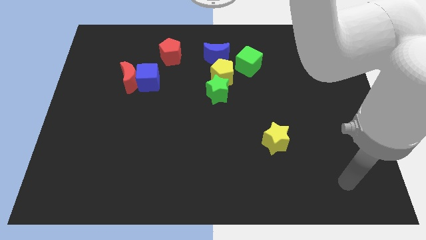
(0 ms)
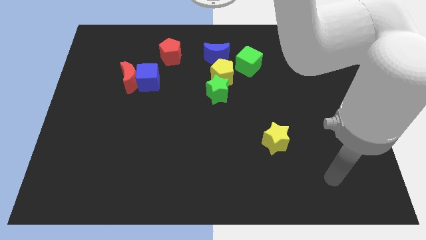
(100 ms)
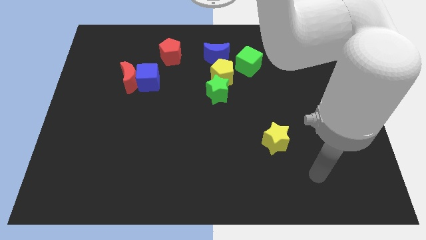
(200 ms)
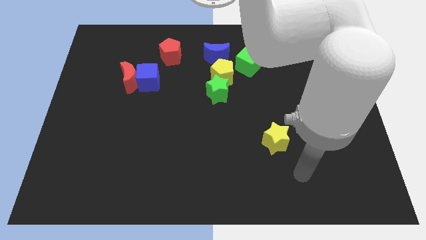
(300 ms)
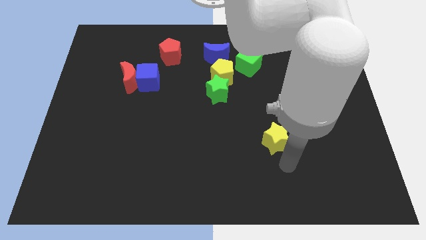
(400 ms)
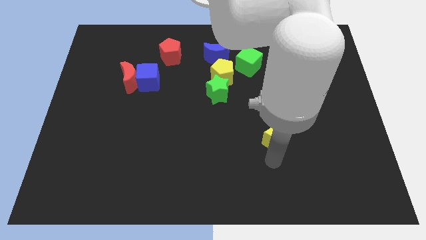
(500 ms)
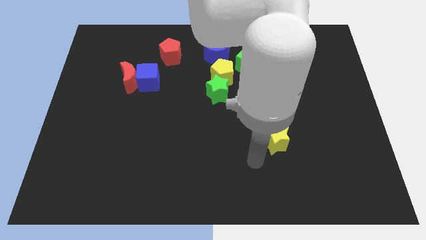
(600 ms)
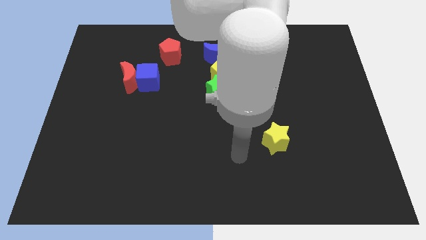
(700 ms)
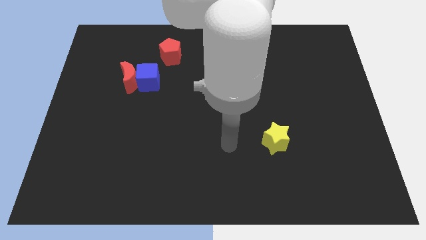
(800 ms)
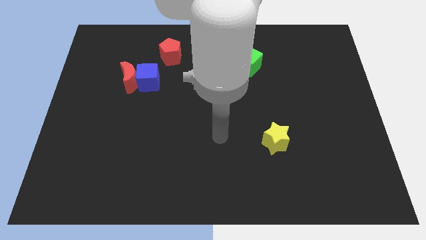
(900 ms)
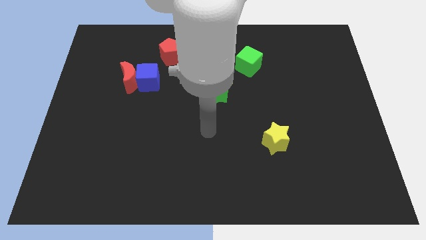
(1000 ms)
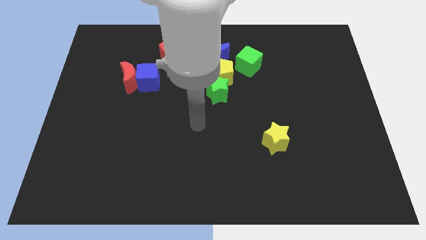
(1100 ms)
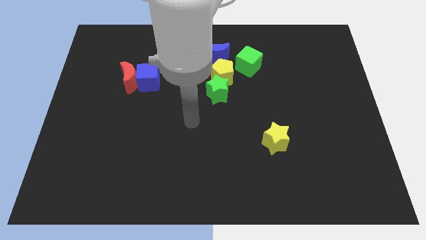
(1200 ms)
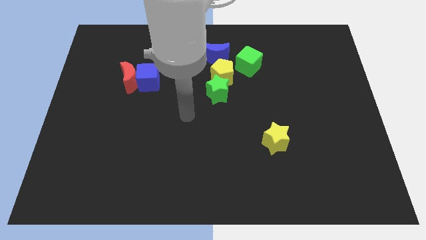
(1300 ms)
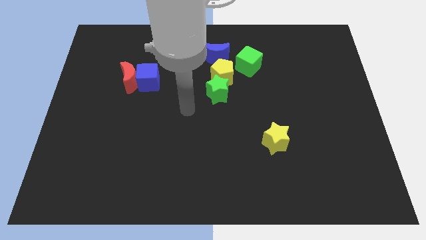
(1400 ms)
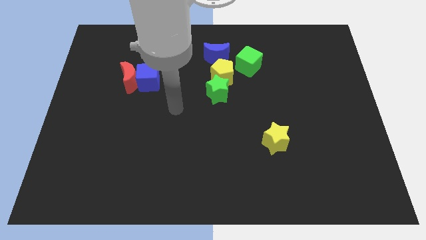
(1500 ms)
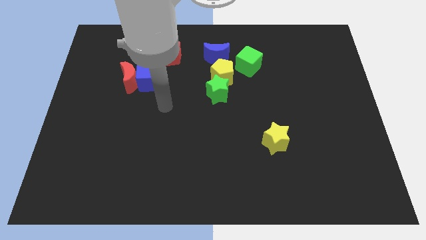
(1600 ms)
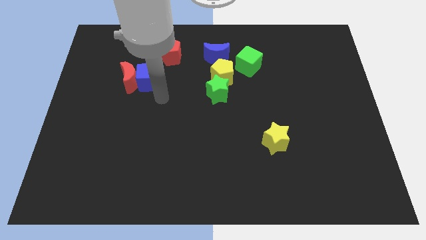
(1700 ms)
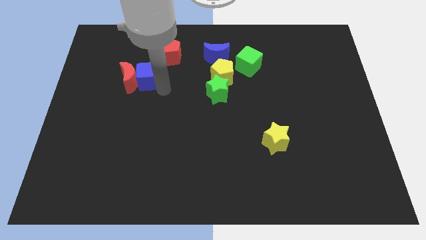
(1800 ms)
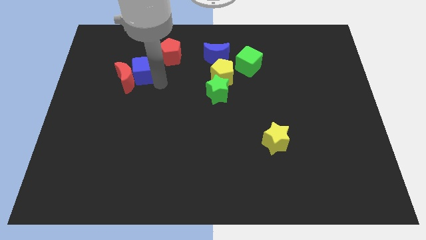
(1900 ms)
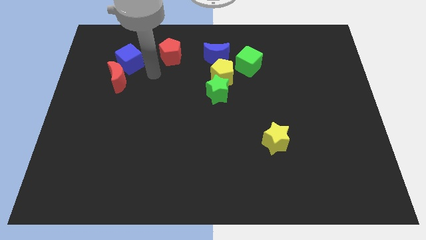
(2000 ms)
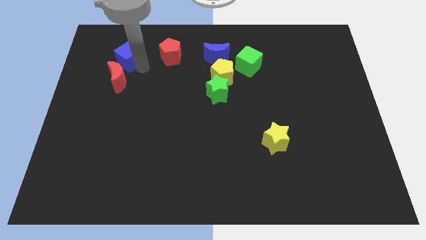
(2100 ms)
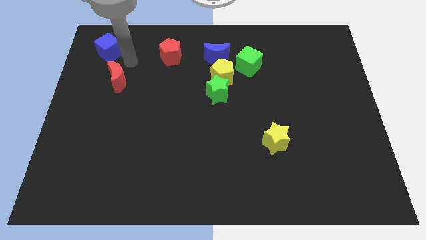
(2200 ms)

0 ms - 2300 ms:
pull the red moon apart from the blue cube

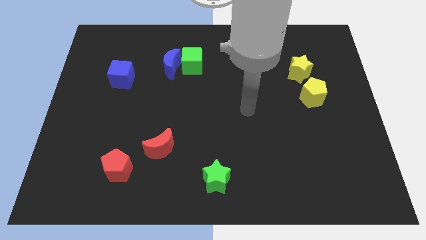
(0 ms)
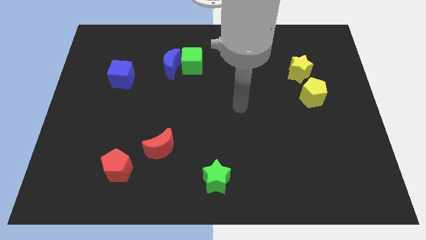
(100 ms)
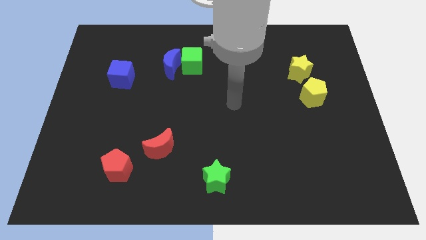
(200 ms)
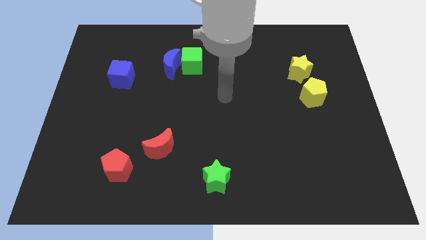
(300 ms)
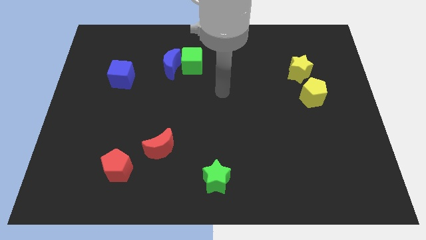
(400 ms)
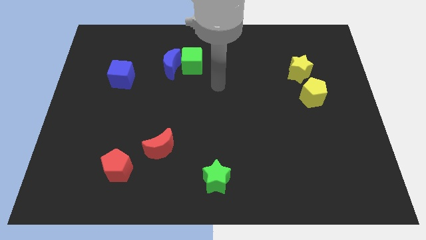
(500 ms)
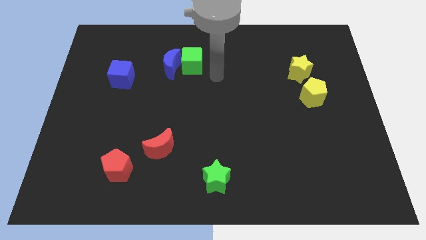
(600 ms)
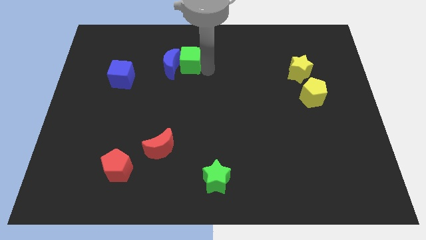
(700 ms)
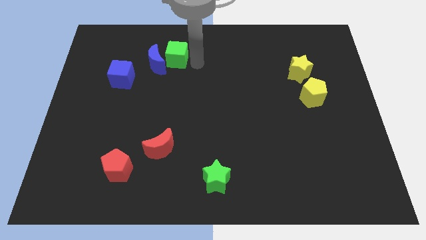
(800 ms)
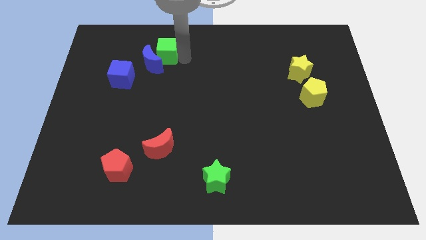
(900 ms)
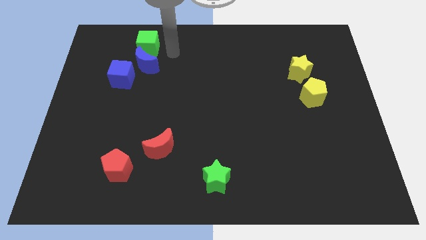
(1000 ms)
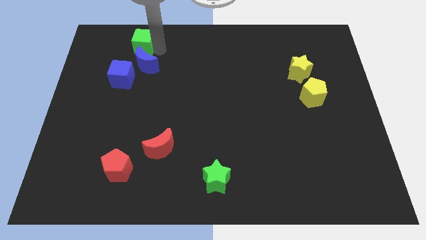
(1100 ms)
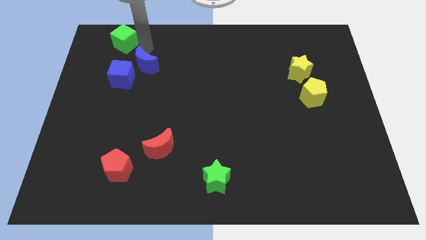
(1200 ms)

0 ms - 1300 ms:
move the blue moon away from the green cube

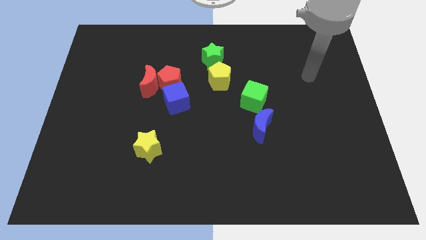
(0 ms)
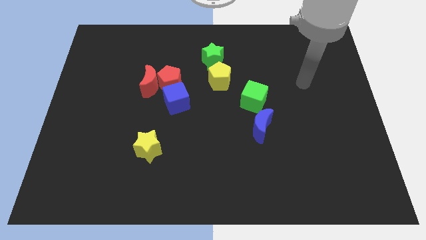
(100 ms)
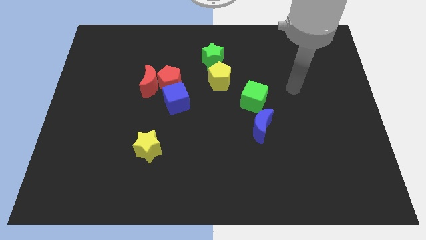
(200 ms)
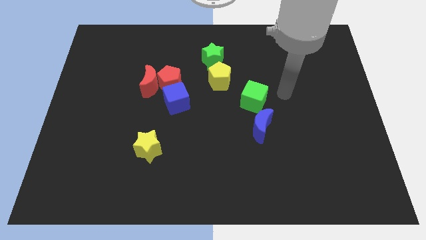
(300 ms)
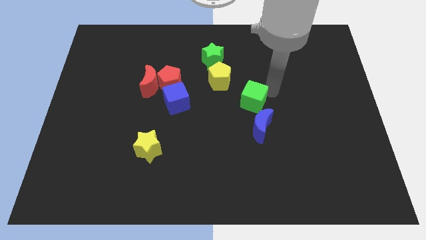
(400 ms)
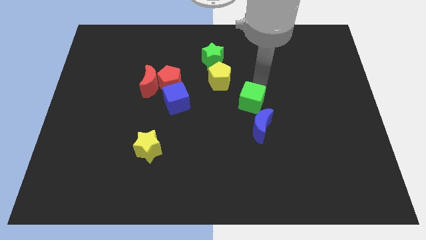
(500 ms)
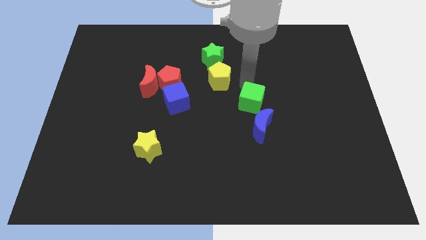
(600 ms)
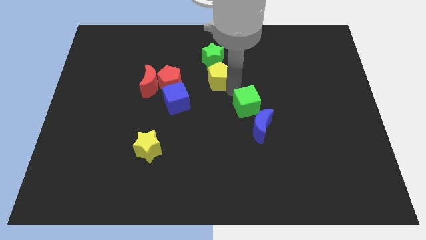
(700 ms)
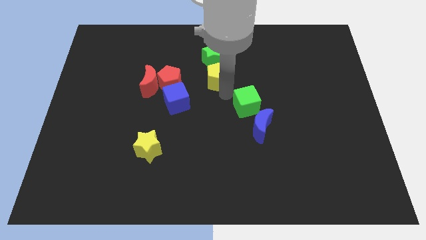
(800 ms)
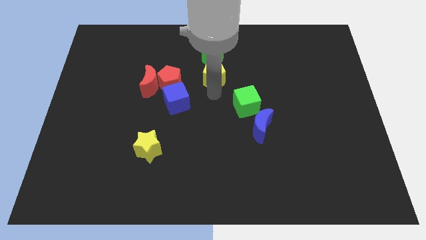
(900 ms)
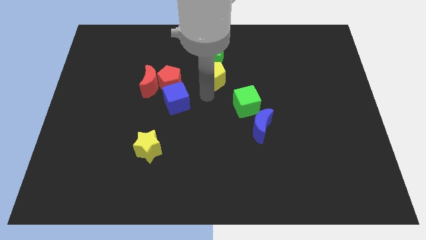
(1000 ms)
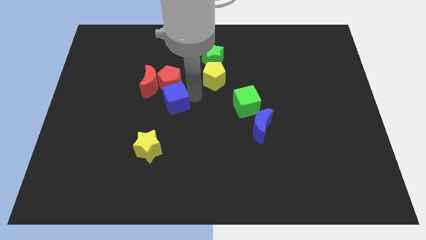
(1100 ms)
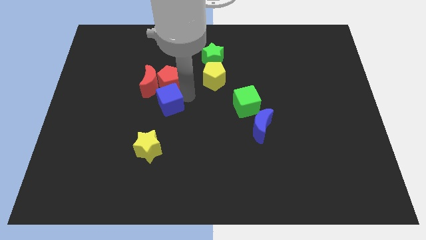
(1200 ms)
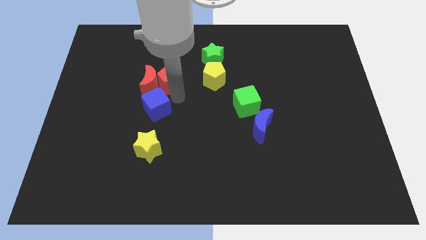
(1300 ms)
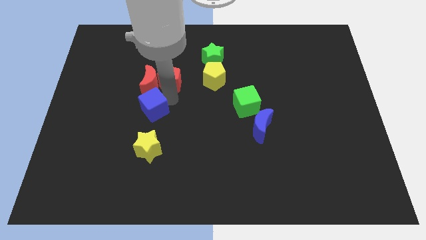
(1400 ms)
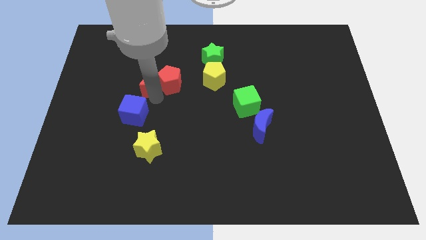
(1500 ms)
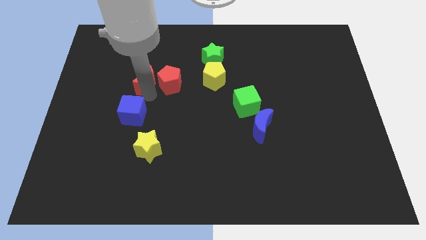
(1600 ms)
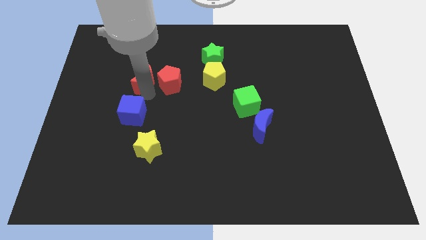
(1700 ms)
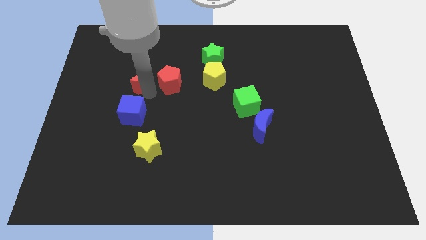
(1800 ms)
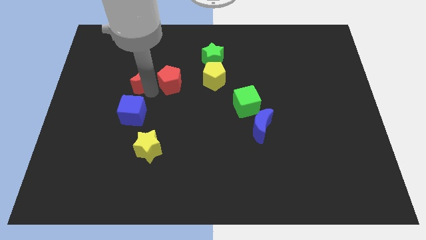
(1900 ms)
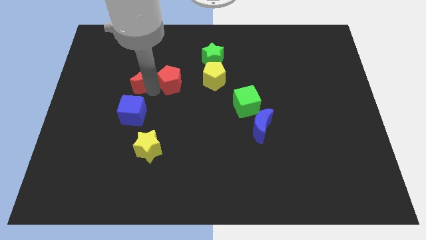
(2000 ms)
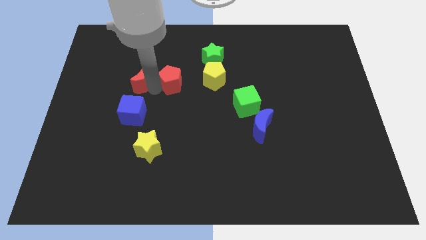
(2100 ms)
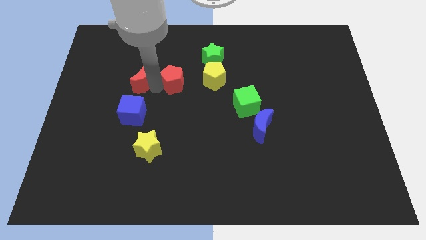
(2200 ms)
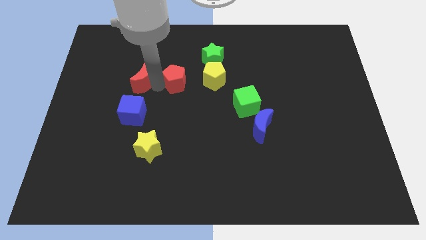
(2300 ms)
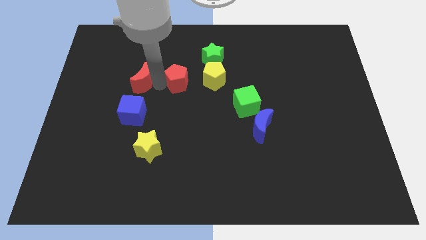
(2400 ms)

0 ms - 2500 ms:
move the red pentagon away from the red moon and blue cube

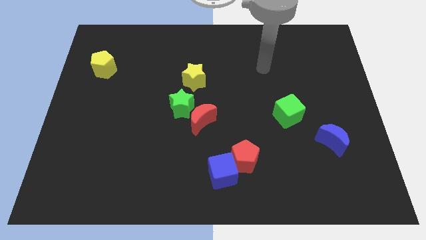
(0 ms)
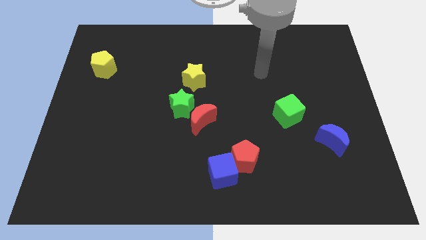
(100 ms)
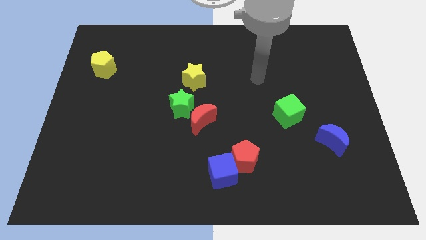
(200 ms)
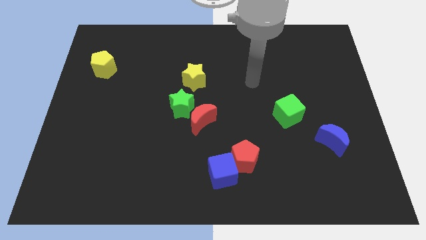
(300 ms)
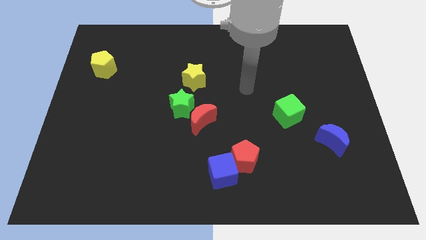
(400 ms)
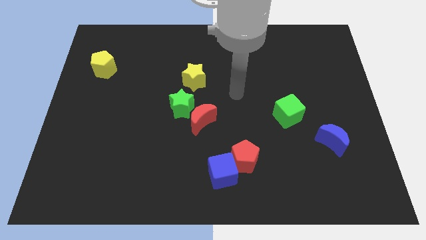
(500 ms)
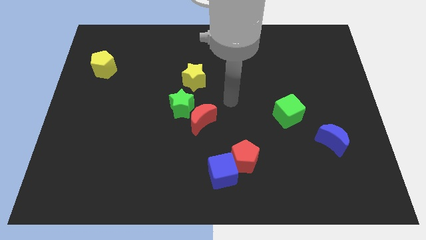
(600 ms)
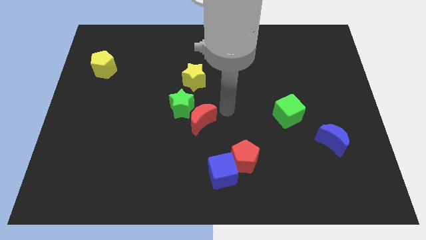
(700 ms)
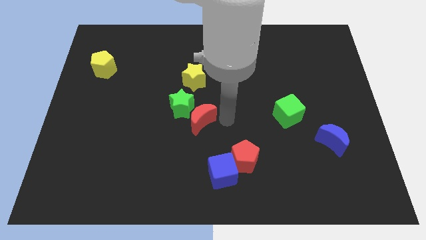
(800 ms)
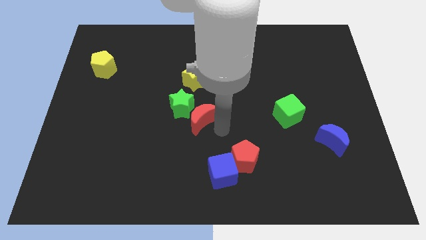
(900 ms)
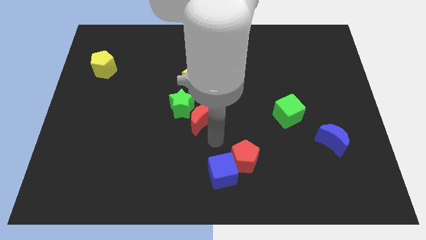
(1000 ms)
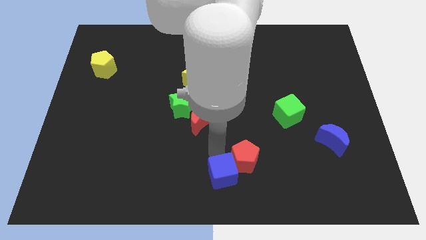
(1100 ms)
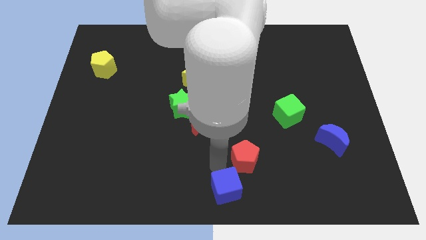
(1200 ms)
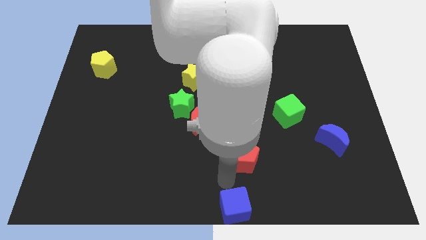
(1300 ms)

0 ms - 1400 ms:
separate the red pentagon from the blue cube

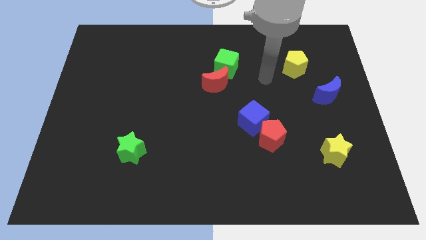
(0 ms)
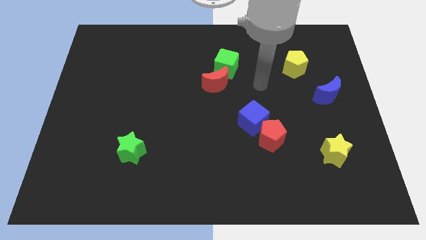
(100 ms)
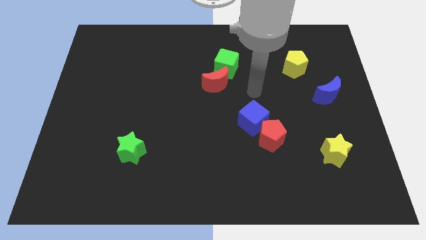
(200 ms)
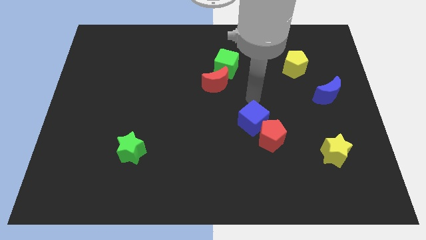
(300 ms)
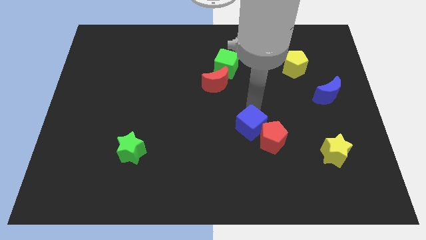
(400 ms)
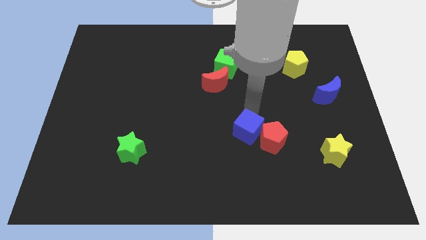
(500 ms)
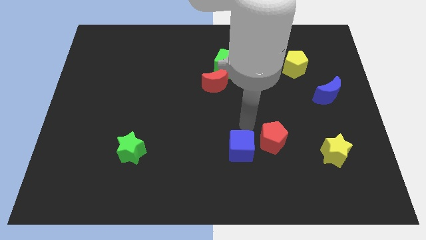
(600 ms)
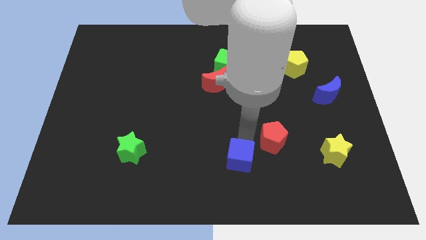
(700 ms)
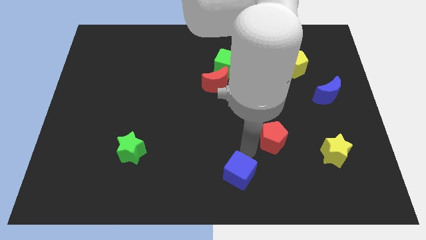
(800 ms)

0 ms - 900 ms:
move the red pentagon away from the blue cube

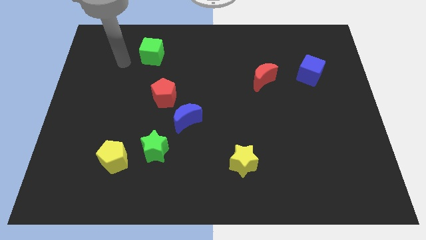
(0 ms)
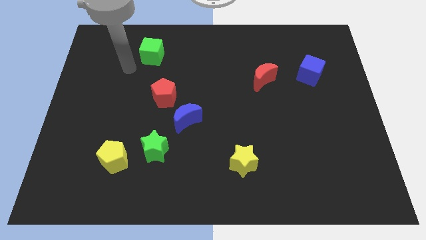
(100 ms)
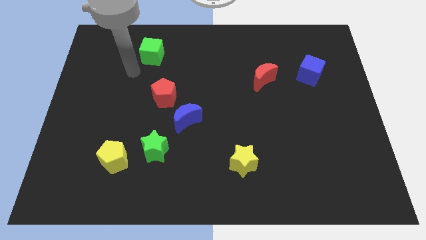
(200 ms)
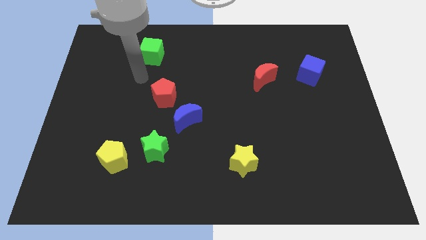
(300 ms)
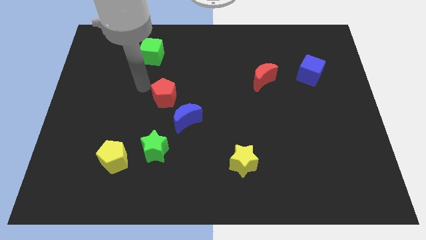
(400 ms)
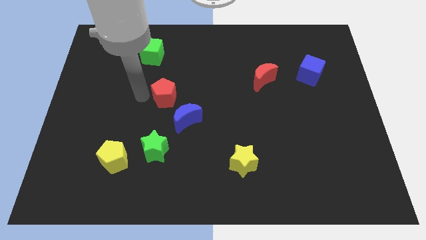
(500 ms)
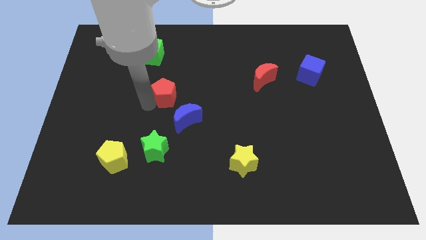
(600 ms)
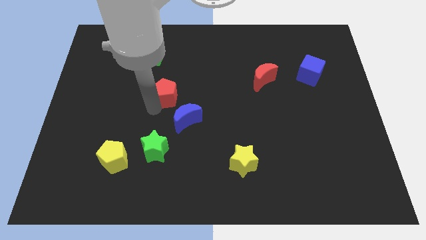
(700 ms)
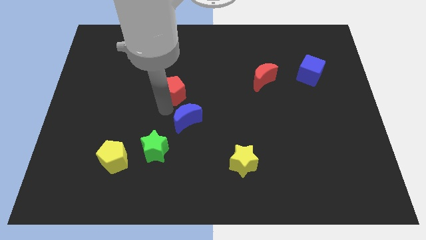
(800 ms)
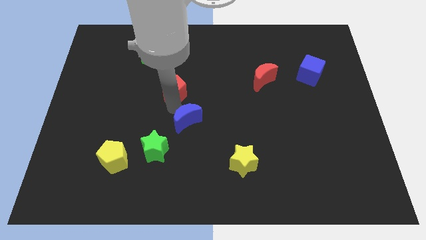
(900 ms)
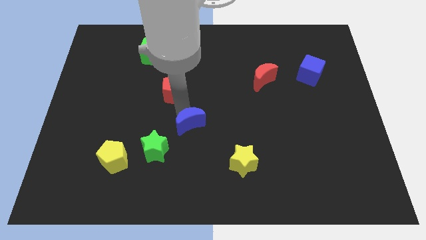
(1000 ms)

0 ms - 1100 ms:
separate the red pentagon from the blue moon
